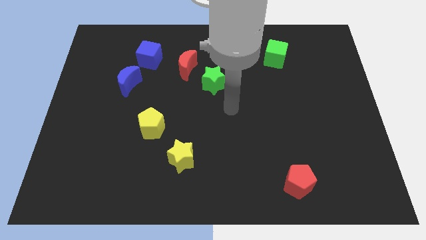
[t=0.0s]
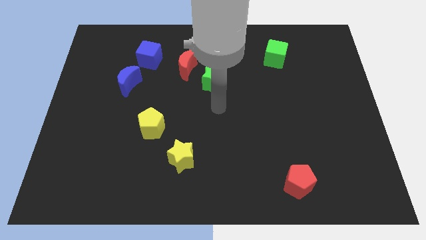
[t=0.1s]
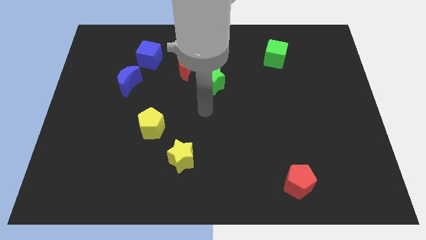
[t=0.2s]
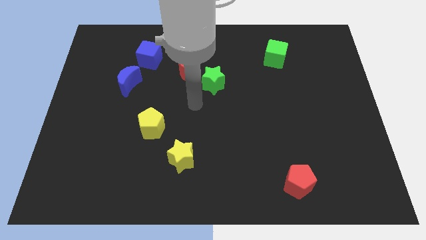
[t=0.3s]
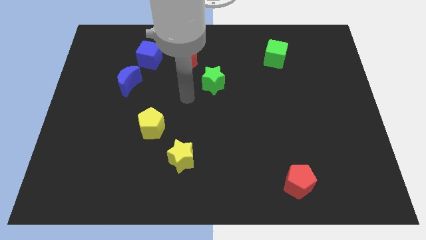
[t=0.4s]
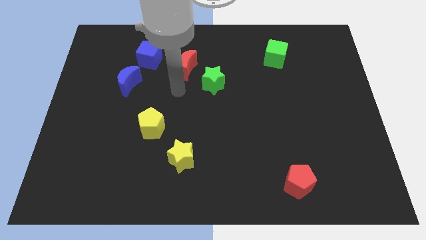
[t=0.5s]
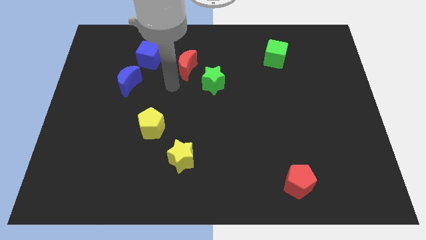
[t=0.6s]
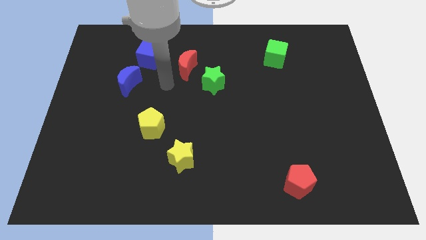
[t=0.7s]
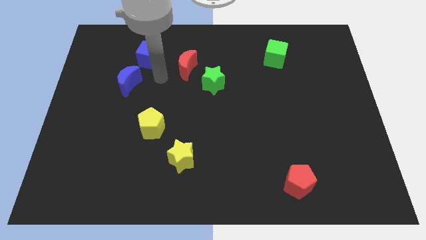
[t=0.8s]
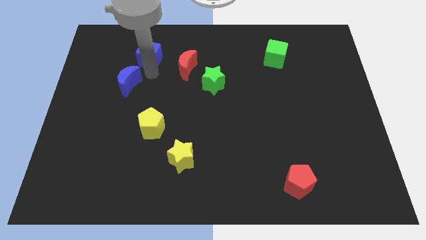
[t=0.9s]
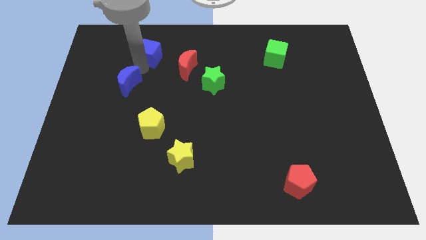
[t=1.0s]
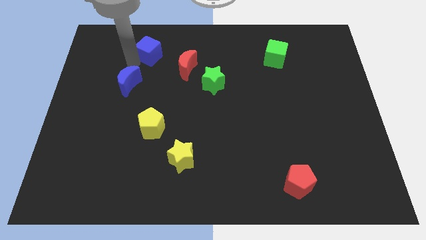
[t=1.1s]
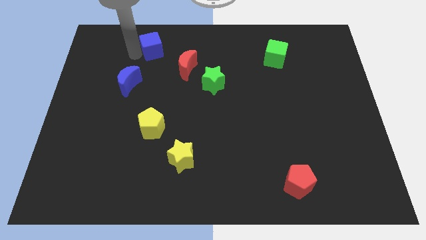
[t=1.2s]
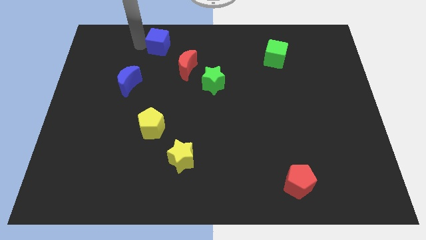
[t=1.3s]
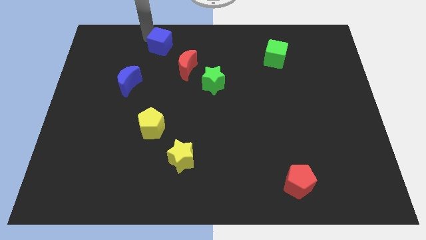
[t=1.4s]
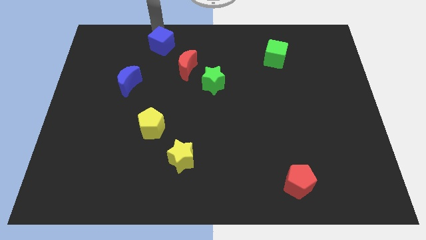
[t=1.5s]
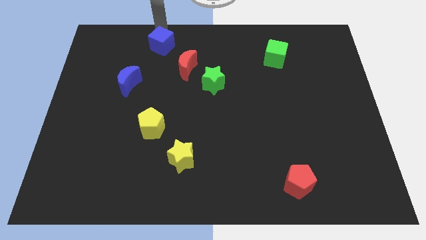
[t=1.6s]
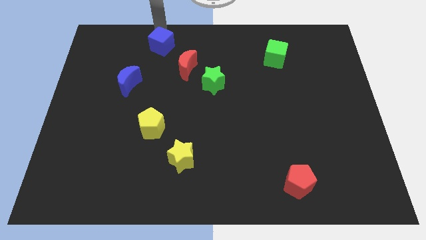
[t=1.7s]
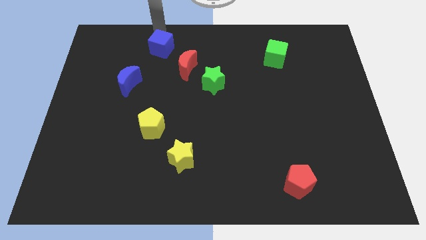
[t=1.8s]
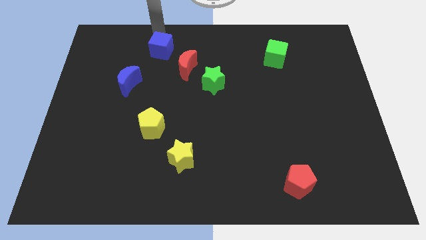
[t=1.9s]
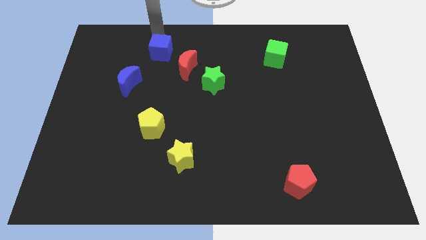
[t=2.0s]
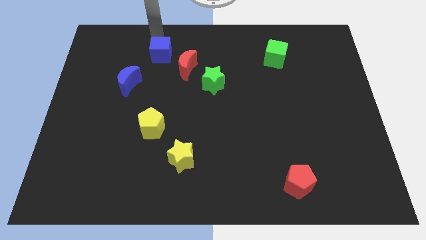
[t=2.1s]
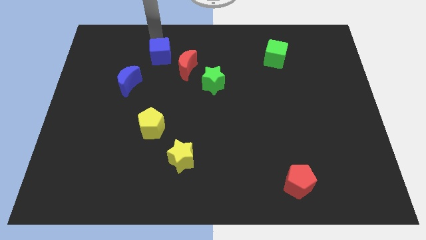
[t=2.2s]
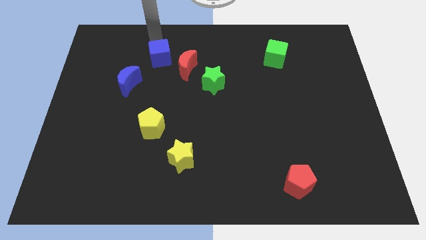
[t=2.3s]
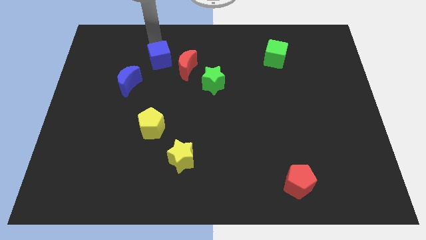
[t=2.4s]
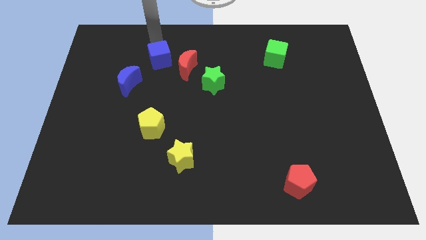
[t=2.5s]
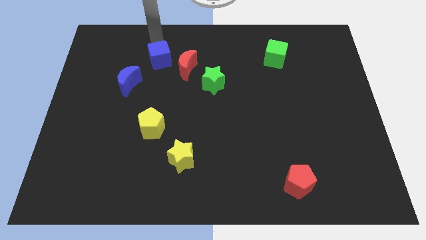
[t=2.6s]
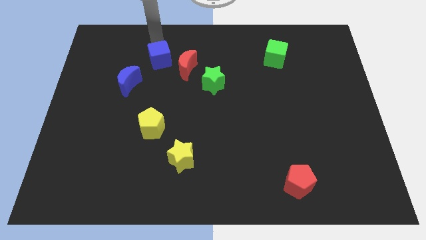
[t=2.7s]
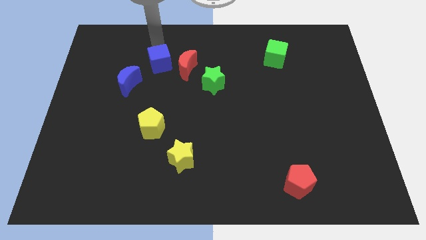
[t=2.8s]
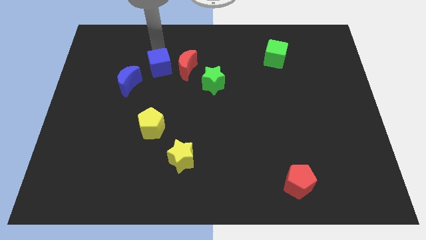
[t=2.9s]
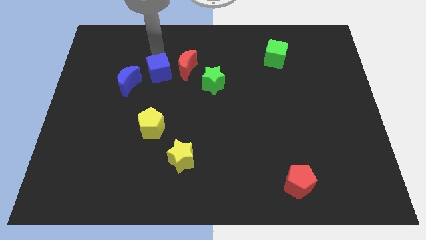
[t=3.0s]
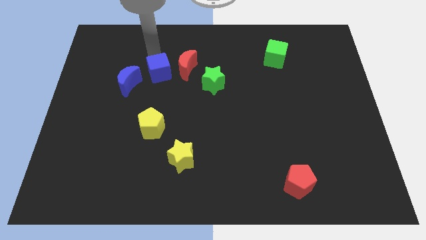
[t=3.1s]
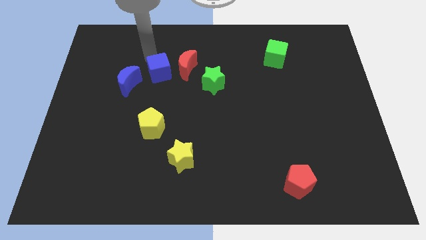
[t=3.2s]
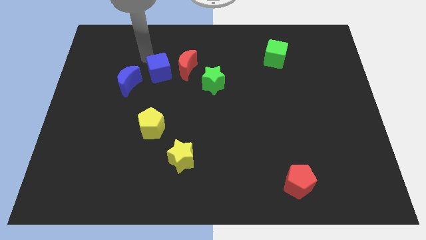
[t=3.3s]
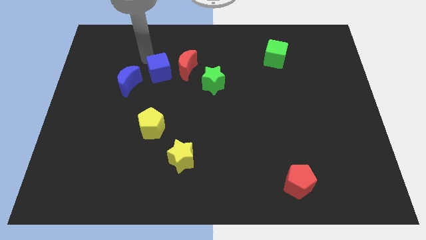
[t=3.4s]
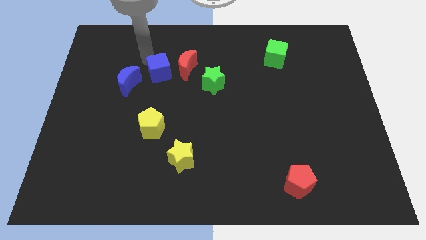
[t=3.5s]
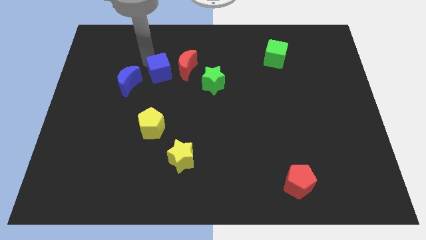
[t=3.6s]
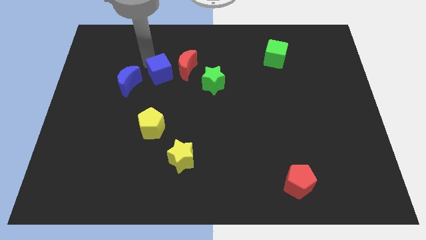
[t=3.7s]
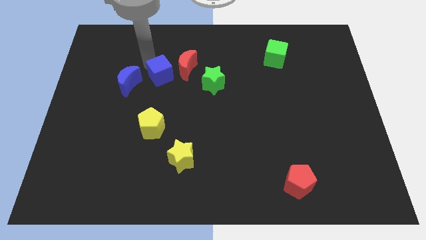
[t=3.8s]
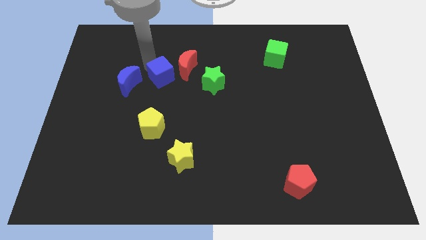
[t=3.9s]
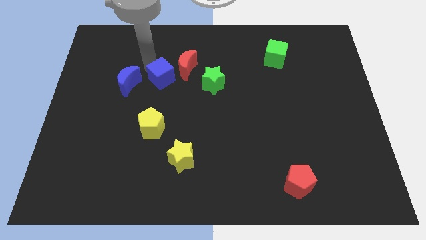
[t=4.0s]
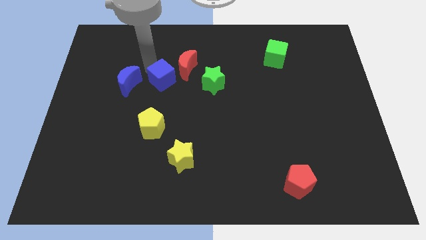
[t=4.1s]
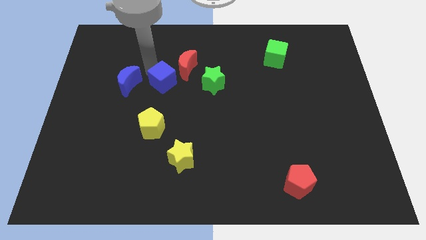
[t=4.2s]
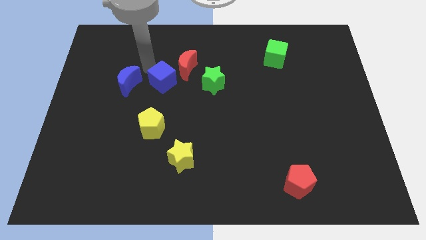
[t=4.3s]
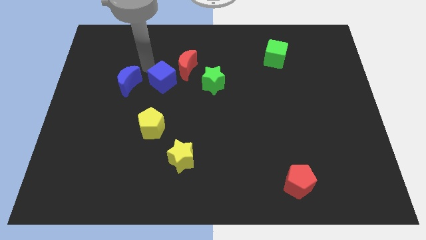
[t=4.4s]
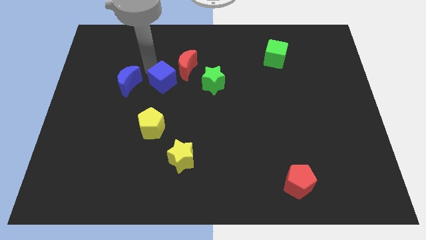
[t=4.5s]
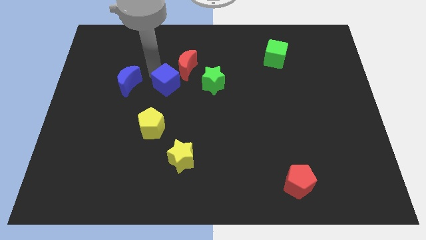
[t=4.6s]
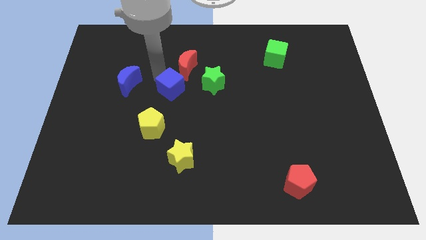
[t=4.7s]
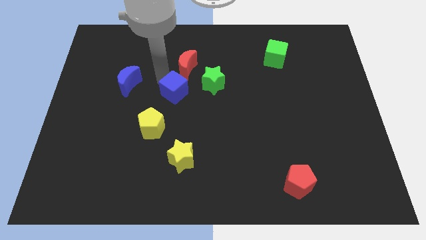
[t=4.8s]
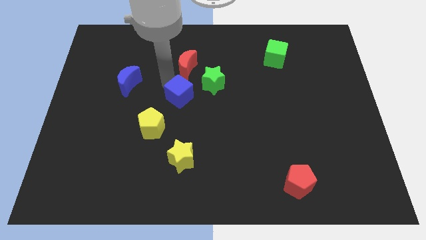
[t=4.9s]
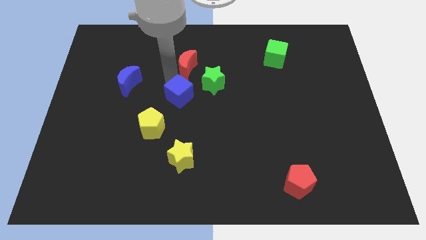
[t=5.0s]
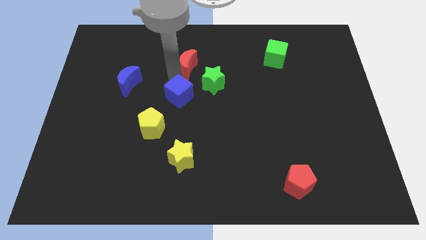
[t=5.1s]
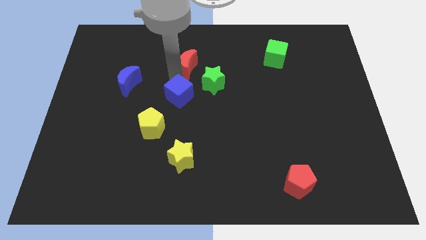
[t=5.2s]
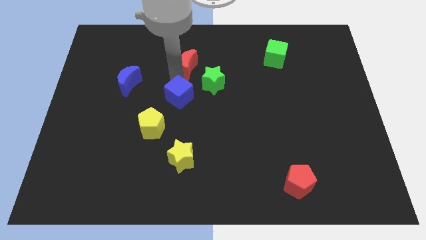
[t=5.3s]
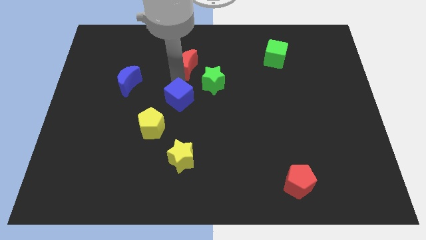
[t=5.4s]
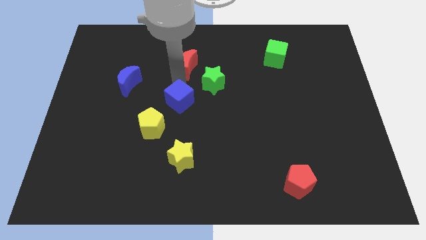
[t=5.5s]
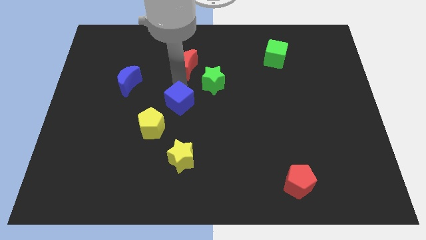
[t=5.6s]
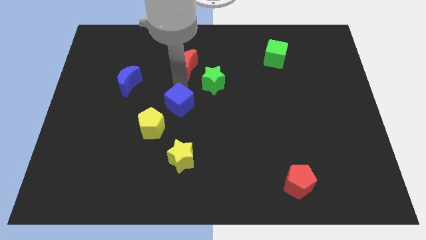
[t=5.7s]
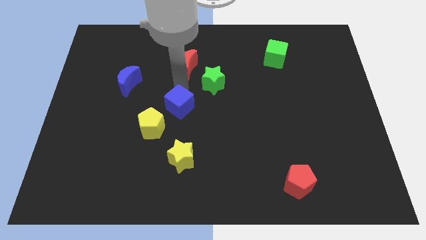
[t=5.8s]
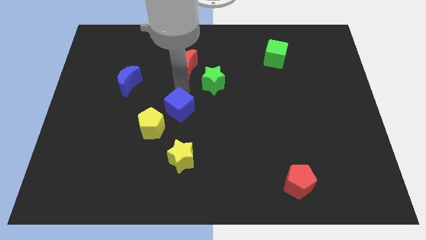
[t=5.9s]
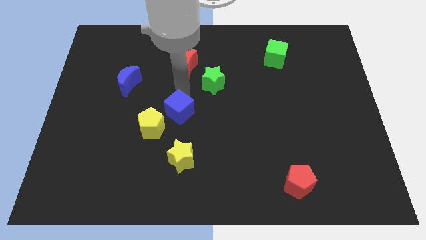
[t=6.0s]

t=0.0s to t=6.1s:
push the blue cube to the right side of the yellow pentagon

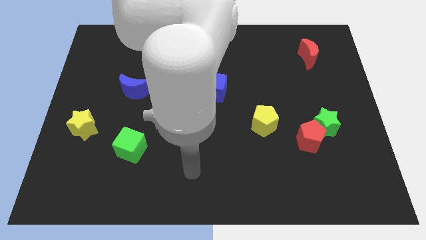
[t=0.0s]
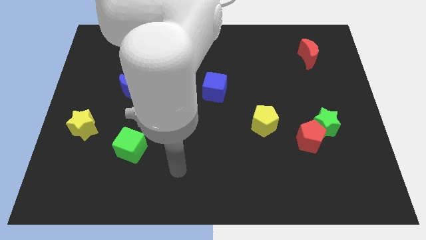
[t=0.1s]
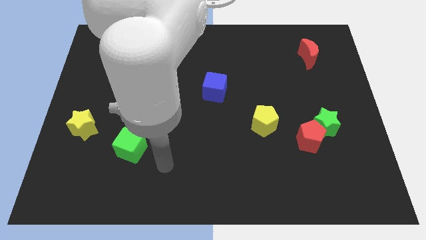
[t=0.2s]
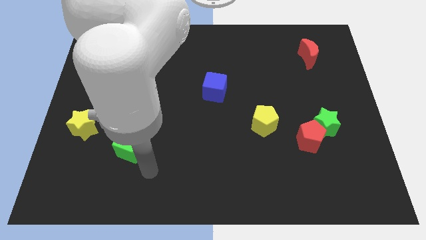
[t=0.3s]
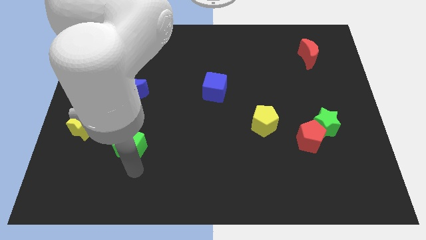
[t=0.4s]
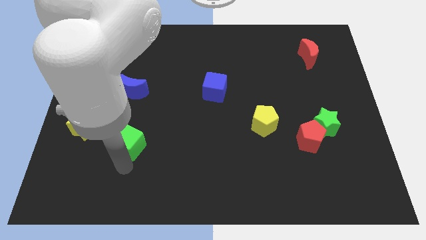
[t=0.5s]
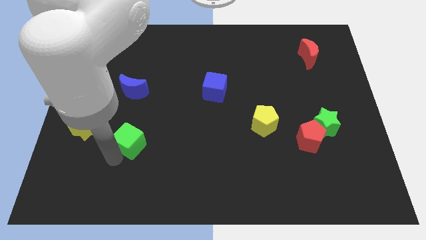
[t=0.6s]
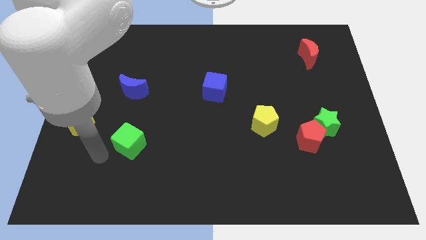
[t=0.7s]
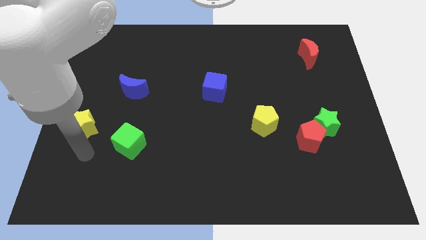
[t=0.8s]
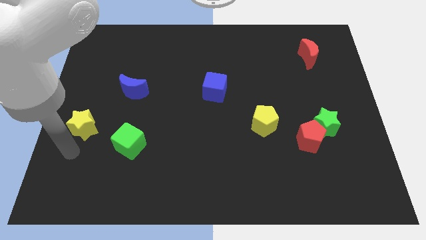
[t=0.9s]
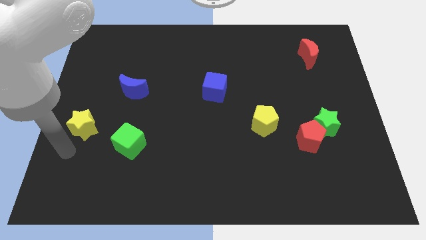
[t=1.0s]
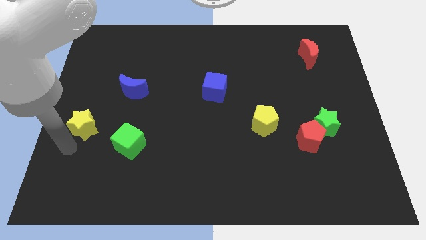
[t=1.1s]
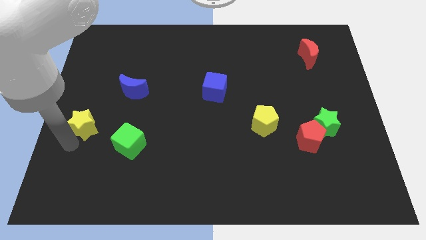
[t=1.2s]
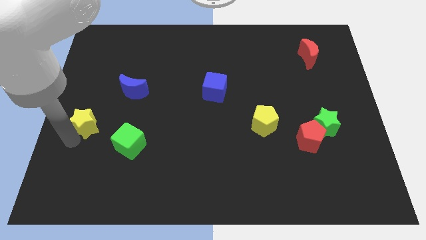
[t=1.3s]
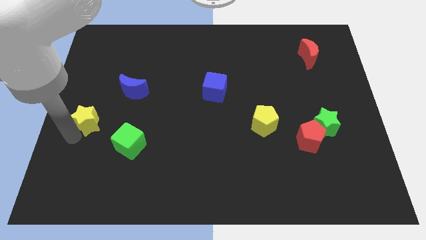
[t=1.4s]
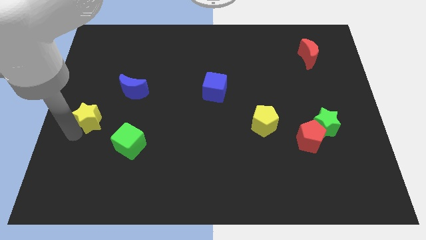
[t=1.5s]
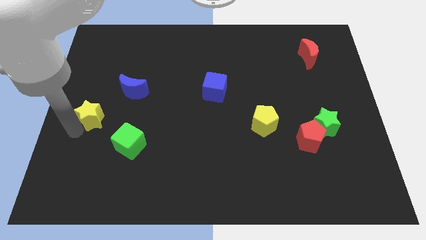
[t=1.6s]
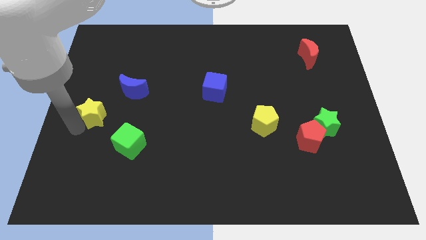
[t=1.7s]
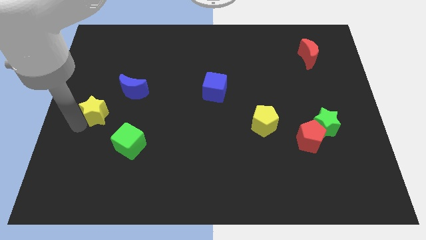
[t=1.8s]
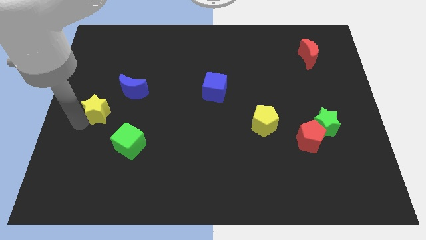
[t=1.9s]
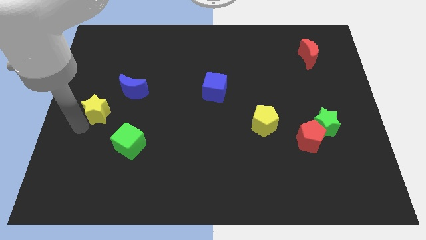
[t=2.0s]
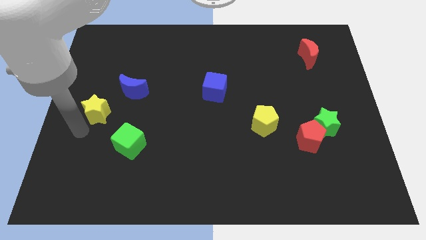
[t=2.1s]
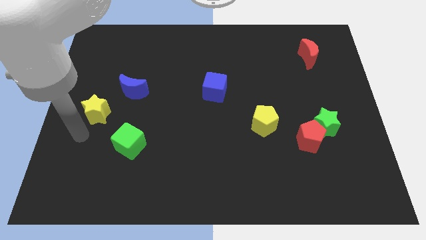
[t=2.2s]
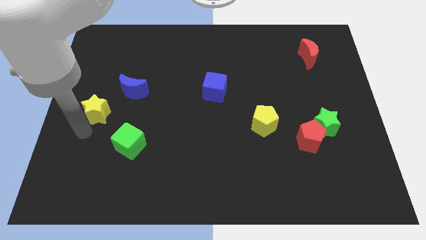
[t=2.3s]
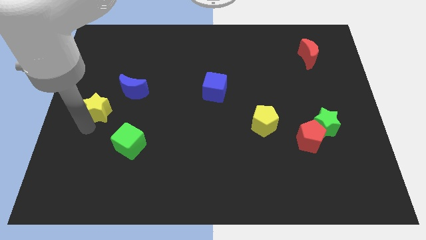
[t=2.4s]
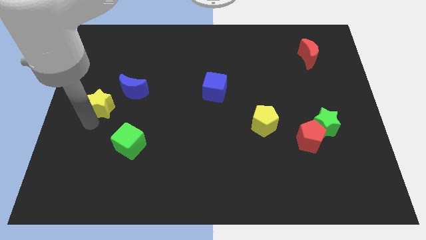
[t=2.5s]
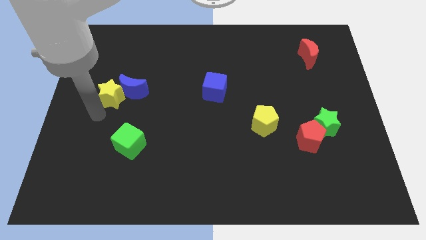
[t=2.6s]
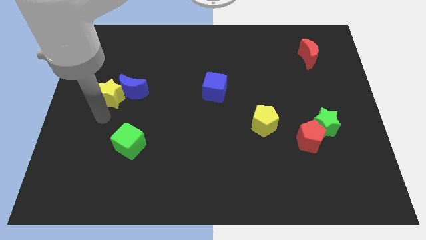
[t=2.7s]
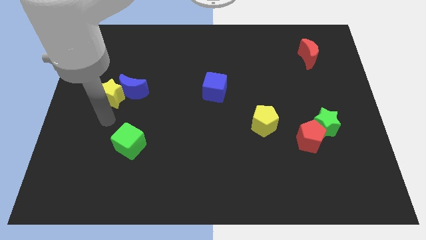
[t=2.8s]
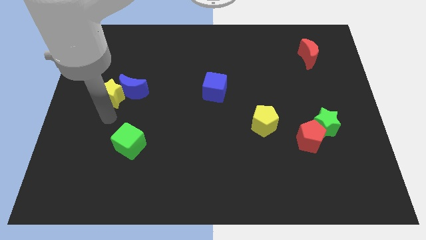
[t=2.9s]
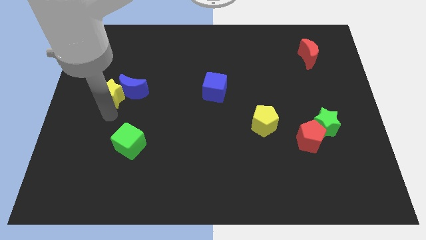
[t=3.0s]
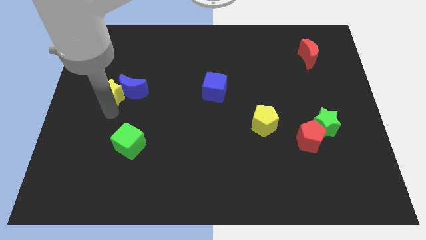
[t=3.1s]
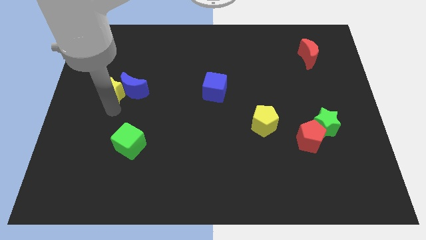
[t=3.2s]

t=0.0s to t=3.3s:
put the yellow star to the top left side of the blue moon
